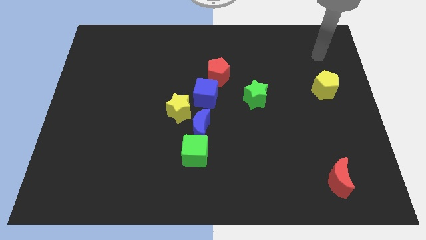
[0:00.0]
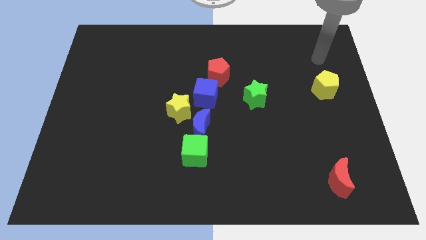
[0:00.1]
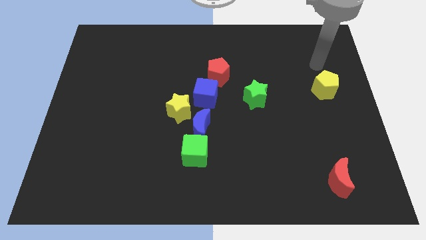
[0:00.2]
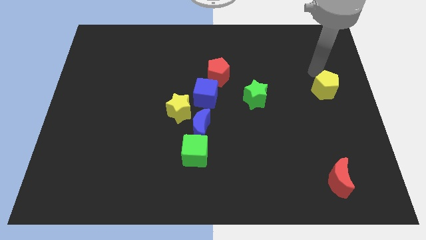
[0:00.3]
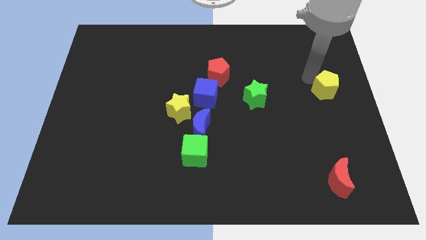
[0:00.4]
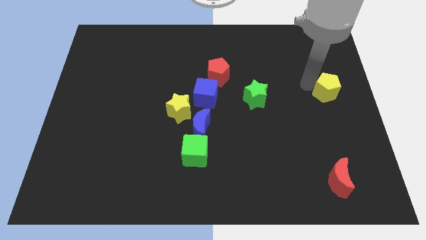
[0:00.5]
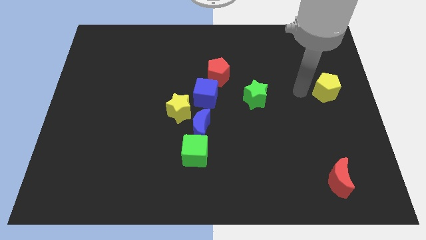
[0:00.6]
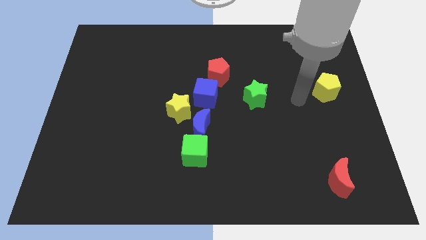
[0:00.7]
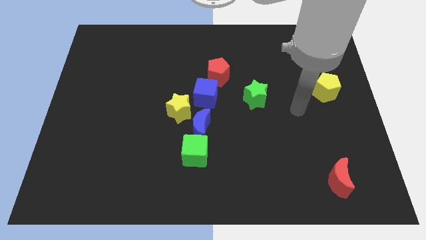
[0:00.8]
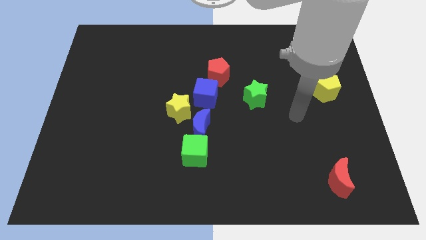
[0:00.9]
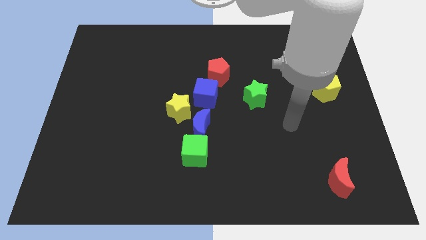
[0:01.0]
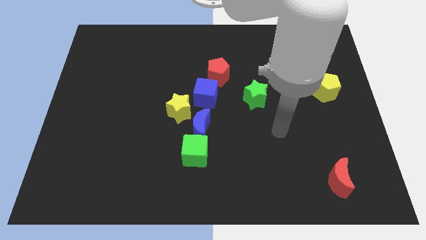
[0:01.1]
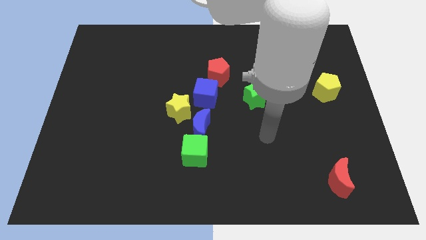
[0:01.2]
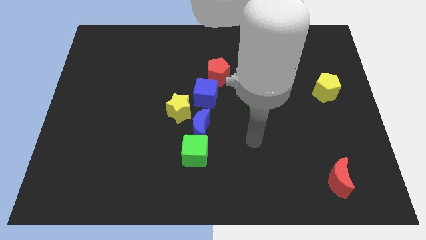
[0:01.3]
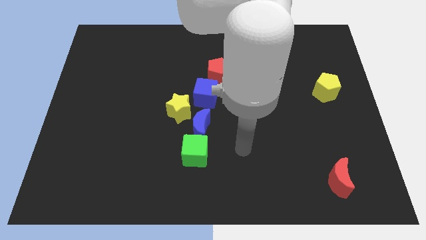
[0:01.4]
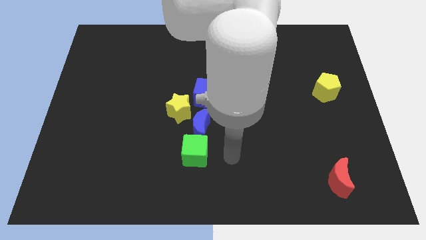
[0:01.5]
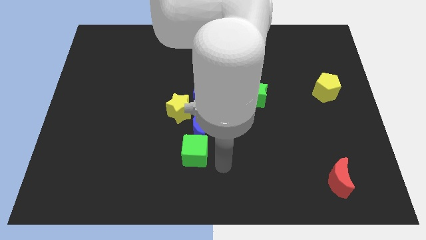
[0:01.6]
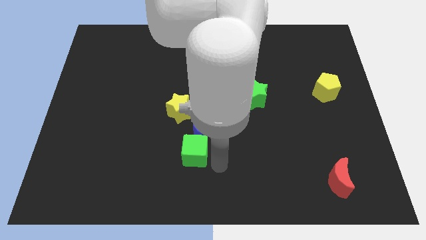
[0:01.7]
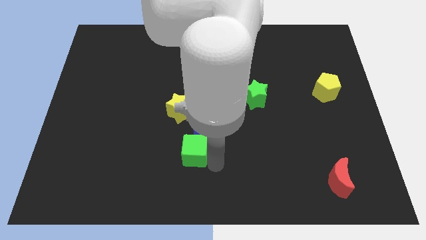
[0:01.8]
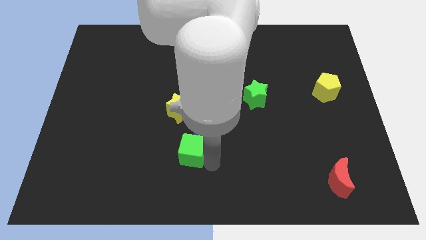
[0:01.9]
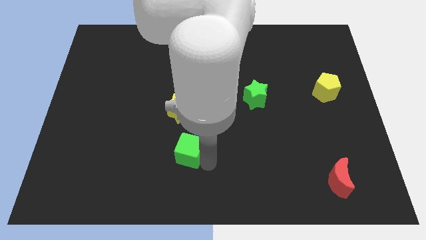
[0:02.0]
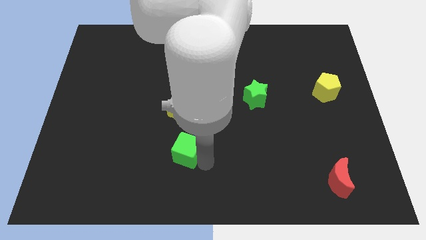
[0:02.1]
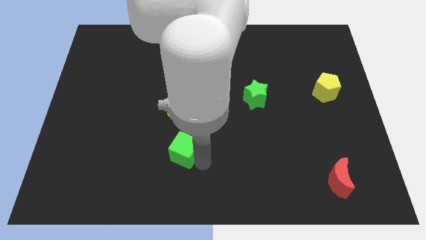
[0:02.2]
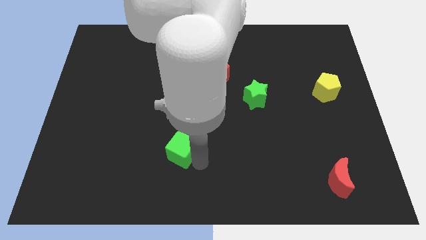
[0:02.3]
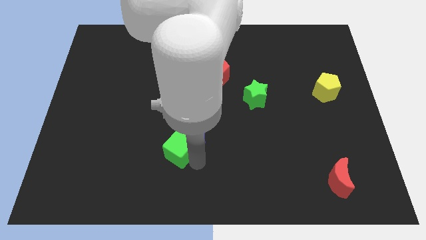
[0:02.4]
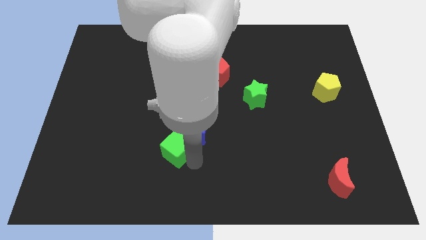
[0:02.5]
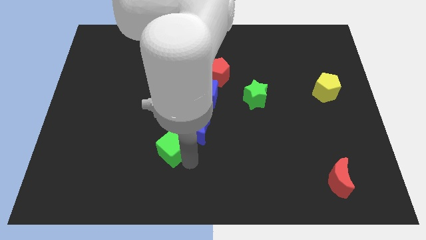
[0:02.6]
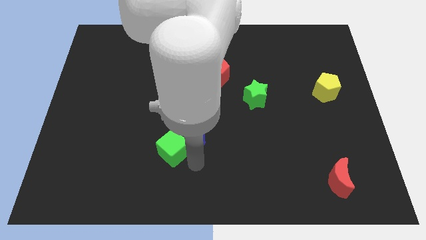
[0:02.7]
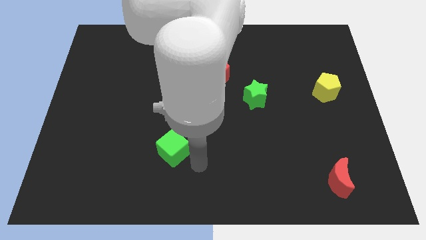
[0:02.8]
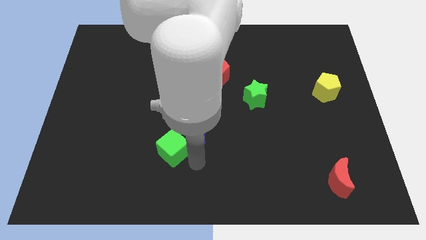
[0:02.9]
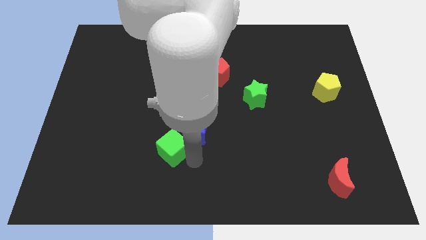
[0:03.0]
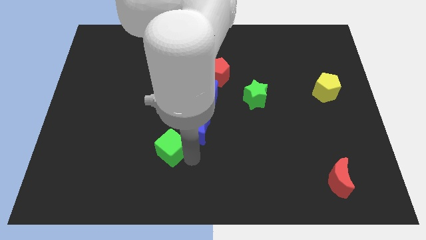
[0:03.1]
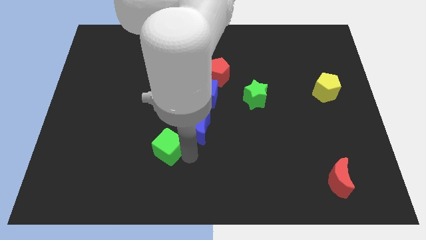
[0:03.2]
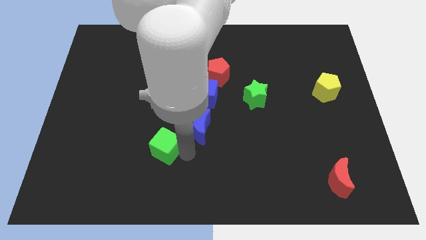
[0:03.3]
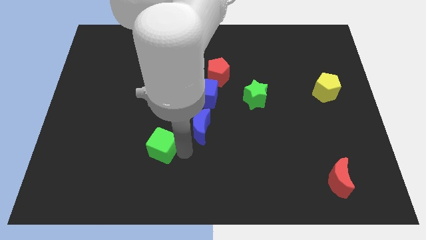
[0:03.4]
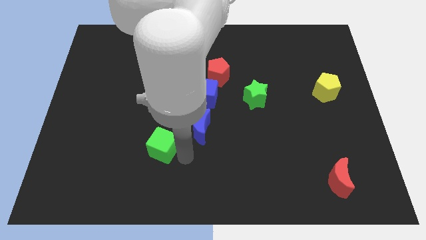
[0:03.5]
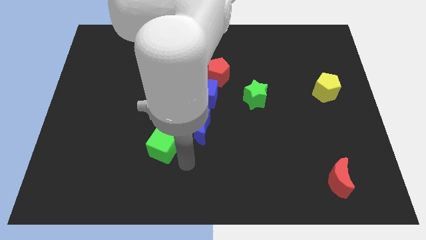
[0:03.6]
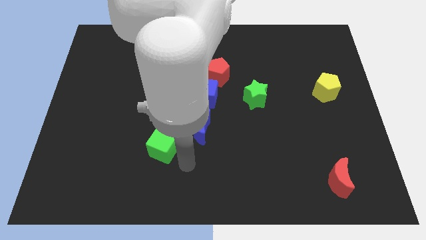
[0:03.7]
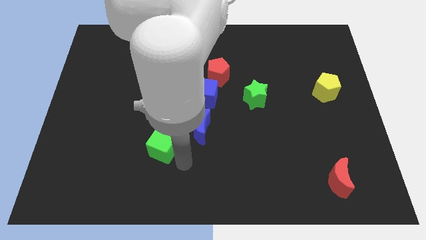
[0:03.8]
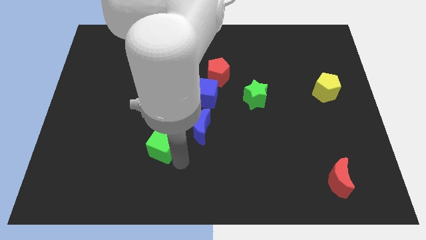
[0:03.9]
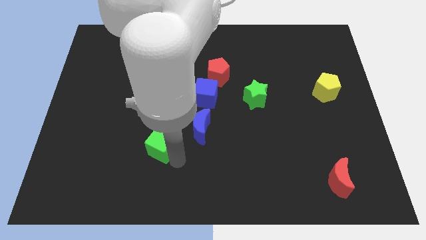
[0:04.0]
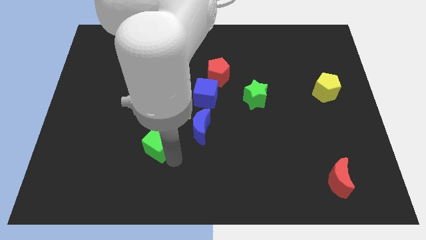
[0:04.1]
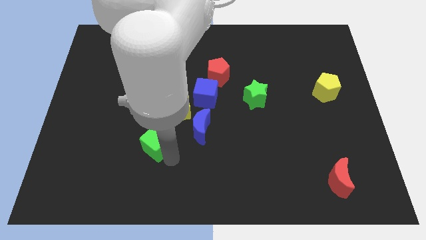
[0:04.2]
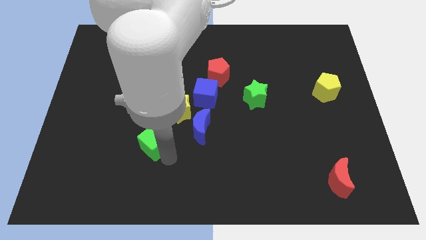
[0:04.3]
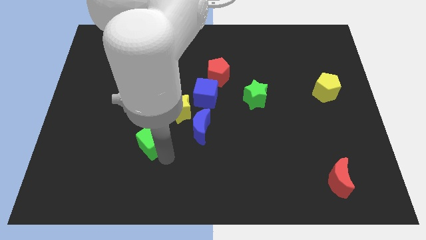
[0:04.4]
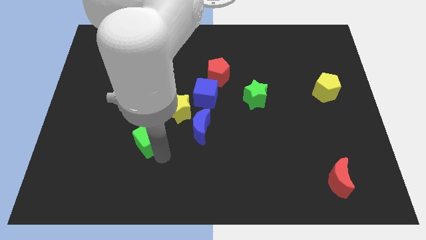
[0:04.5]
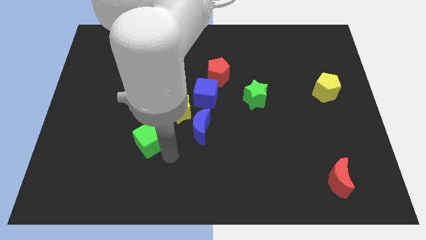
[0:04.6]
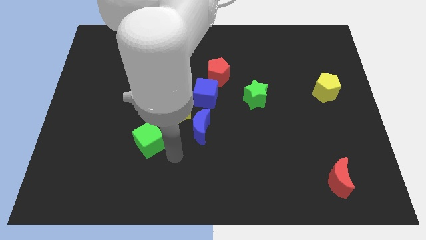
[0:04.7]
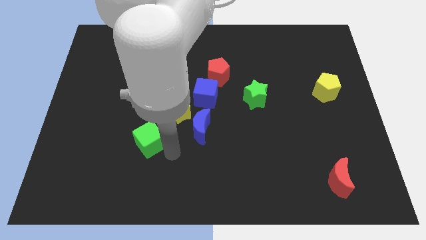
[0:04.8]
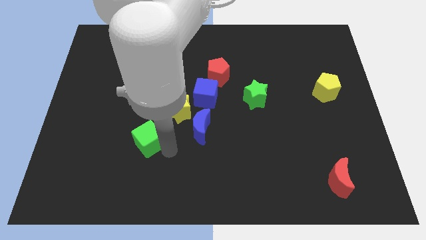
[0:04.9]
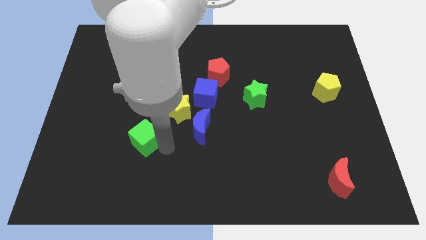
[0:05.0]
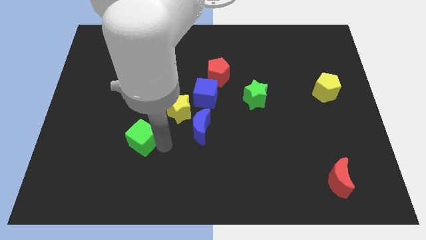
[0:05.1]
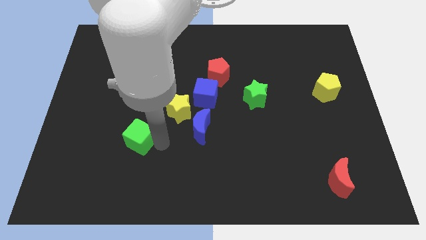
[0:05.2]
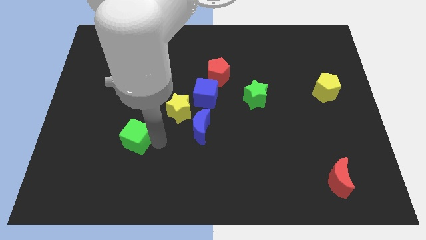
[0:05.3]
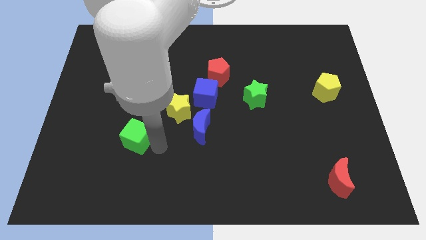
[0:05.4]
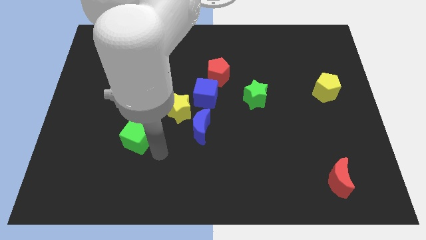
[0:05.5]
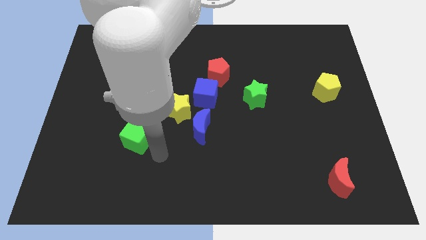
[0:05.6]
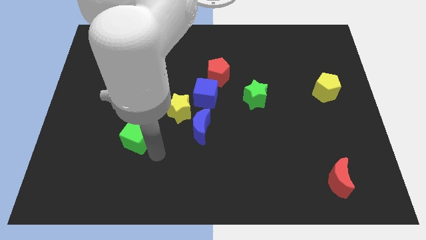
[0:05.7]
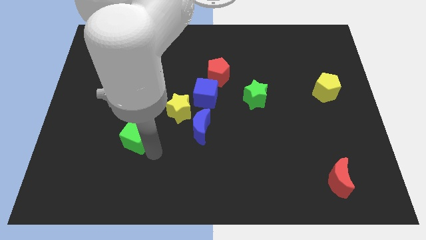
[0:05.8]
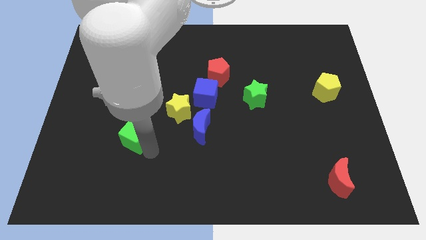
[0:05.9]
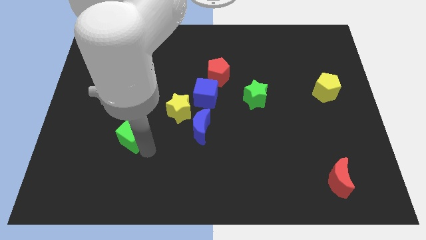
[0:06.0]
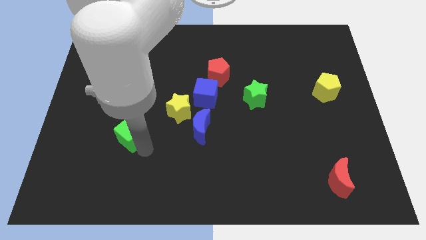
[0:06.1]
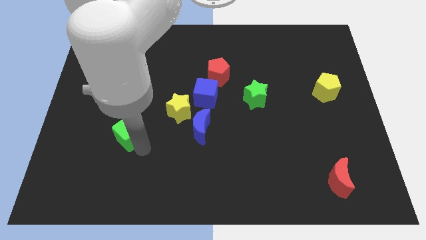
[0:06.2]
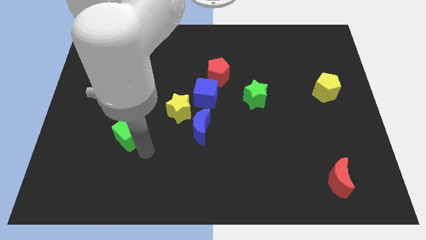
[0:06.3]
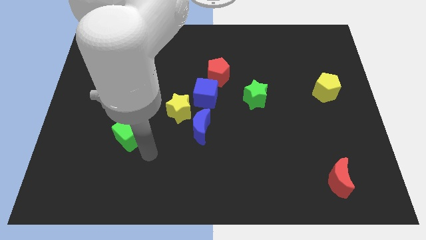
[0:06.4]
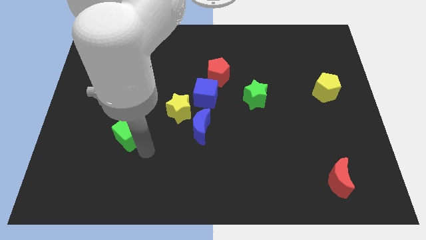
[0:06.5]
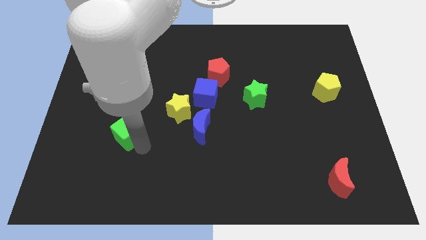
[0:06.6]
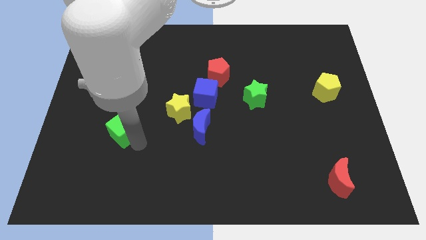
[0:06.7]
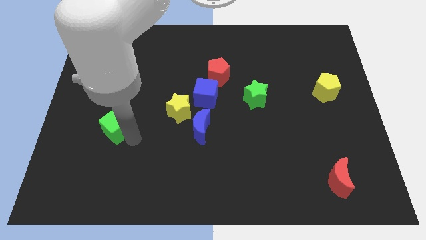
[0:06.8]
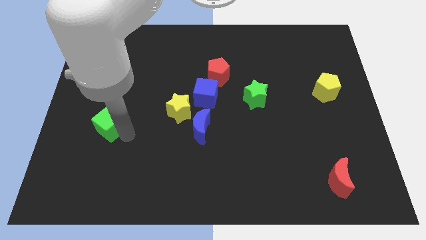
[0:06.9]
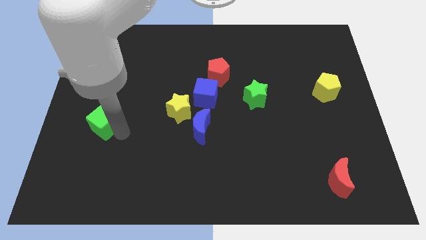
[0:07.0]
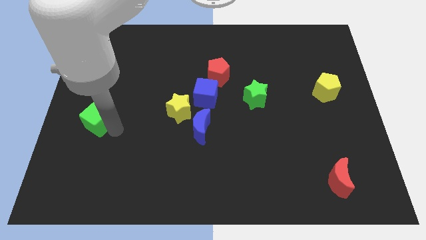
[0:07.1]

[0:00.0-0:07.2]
push the green cube to the center left

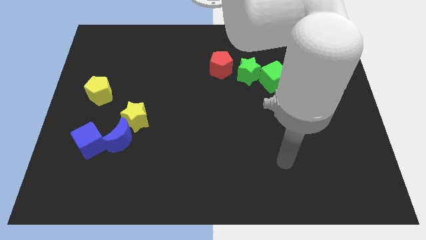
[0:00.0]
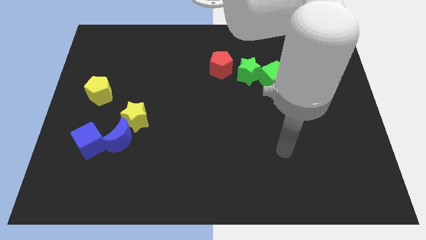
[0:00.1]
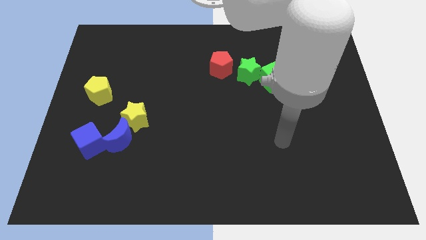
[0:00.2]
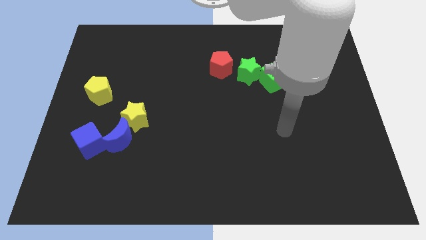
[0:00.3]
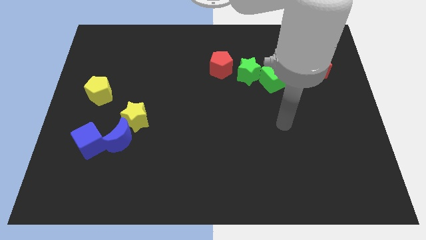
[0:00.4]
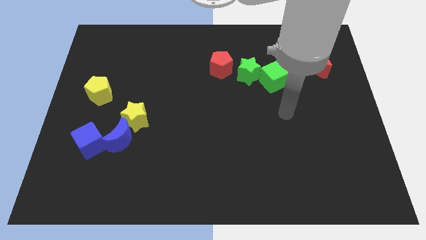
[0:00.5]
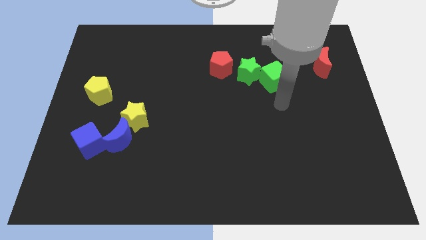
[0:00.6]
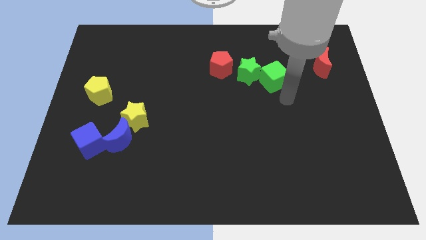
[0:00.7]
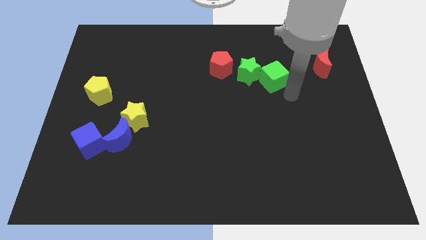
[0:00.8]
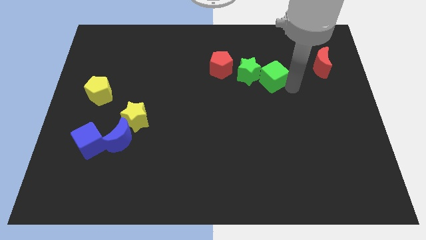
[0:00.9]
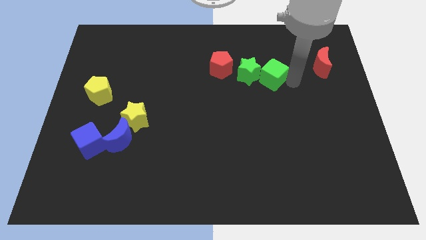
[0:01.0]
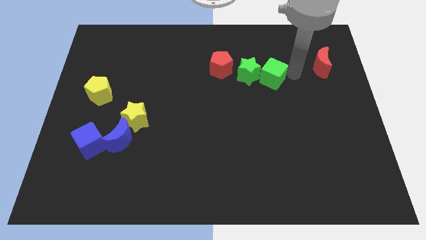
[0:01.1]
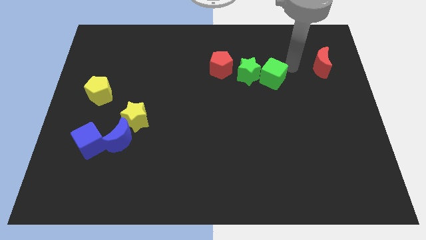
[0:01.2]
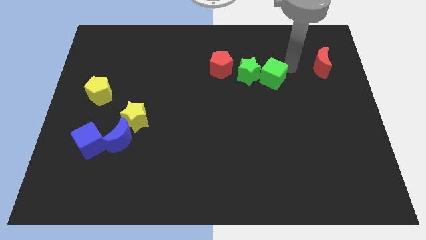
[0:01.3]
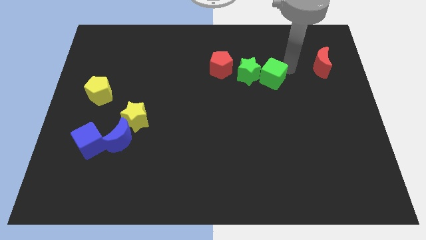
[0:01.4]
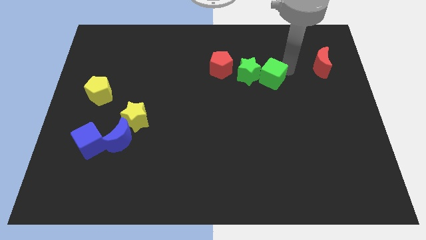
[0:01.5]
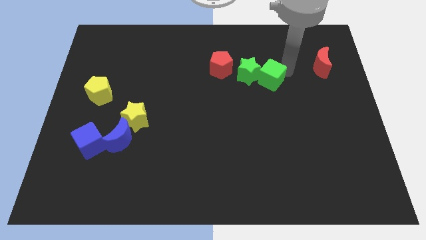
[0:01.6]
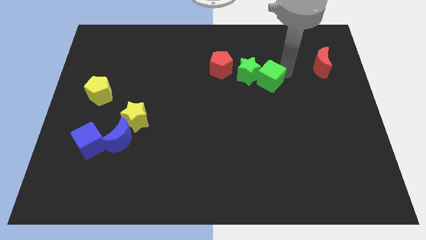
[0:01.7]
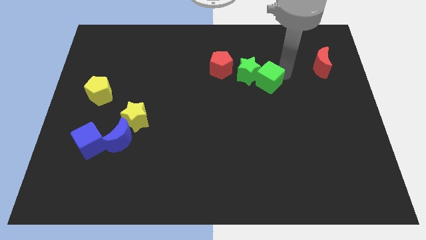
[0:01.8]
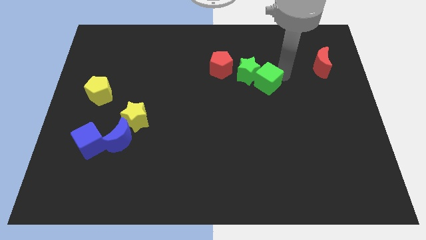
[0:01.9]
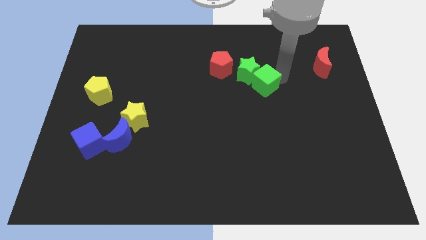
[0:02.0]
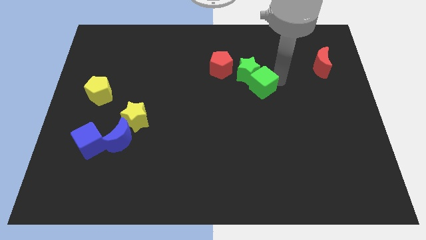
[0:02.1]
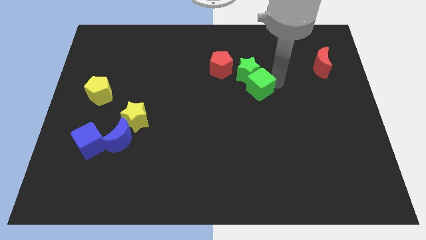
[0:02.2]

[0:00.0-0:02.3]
slide the green cube to the center
